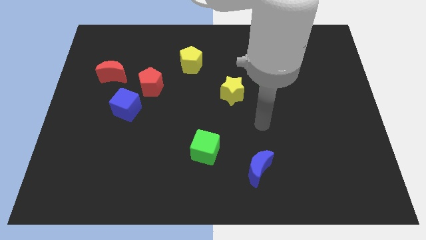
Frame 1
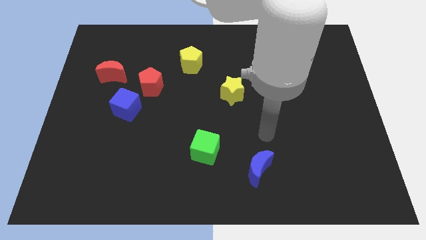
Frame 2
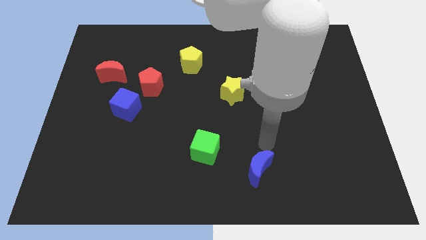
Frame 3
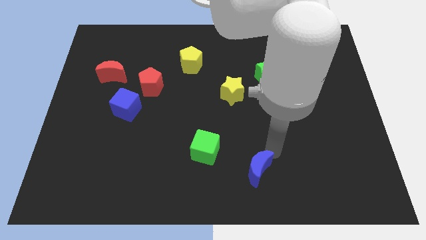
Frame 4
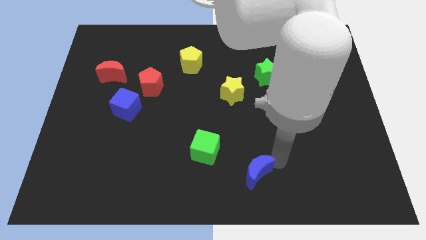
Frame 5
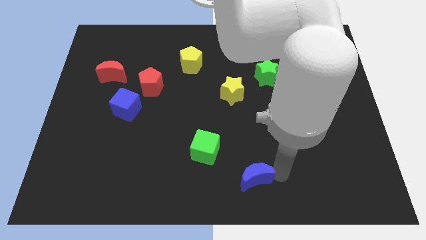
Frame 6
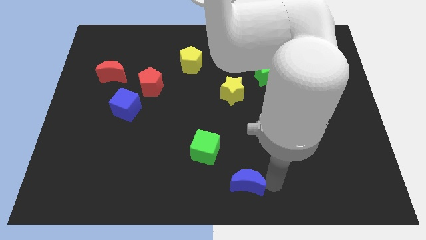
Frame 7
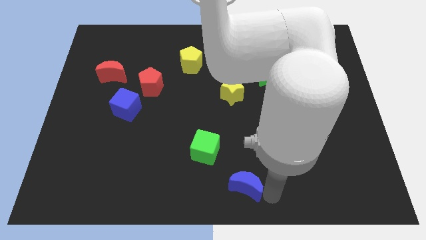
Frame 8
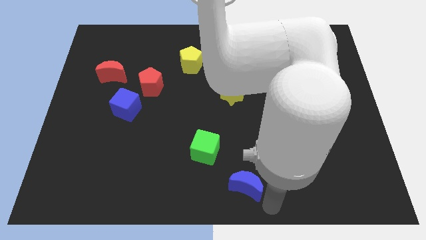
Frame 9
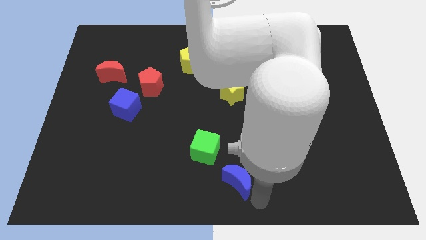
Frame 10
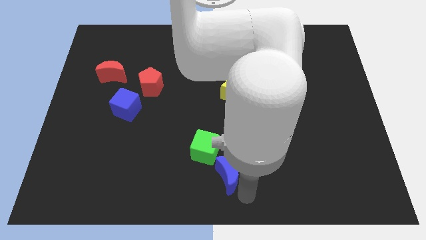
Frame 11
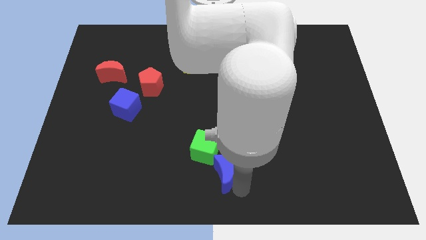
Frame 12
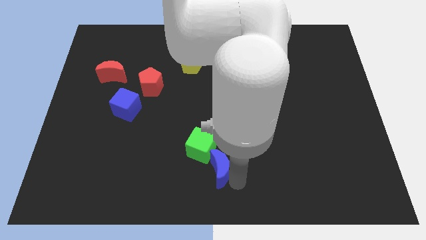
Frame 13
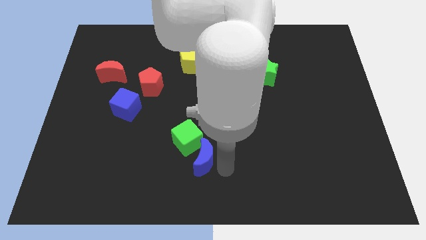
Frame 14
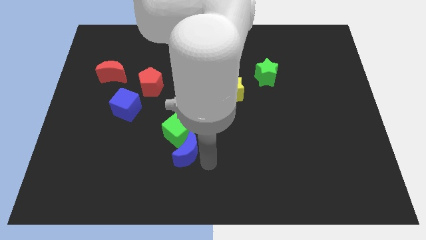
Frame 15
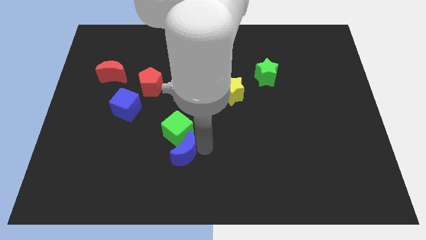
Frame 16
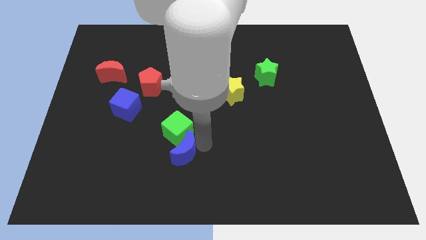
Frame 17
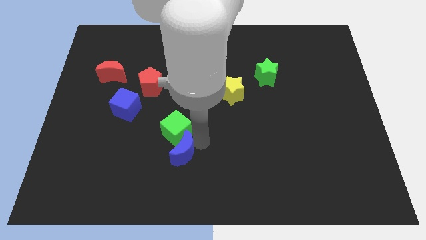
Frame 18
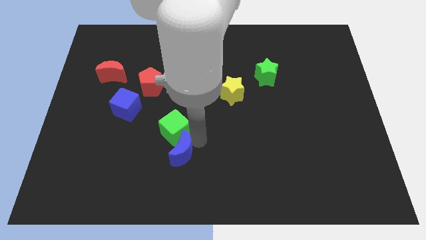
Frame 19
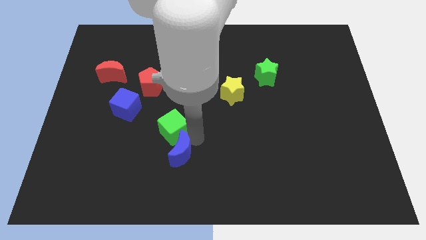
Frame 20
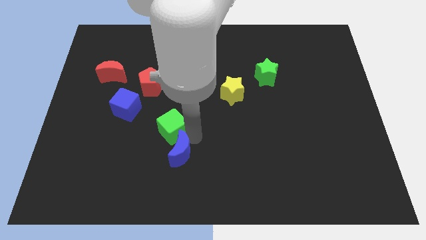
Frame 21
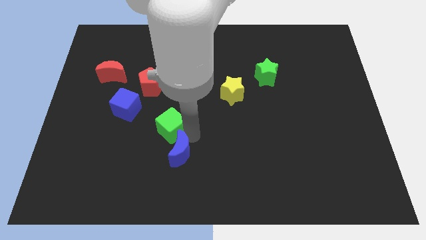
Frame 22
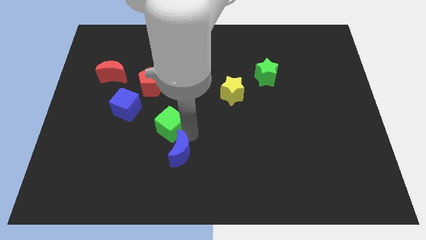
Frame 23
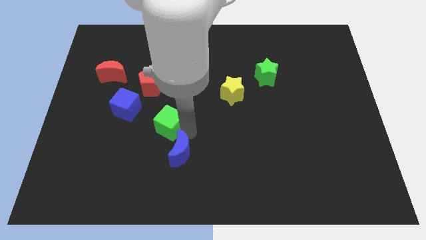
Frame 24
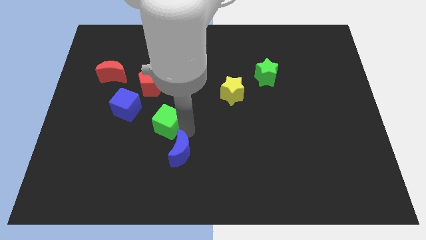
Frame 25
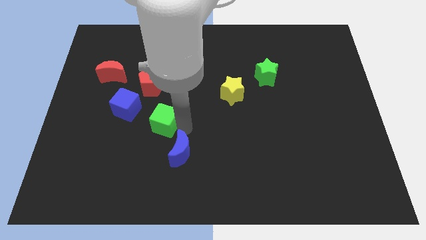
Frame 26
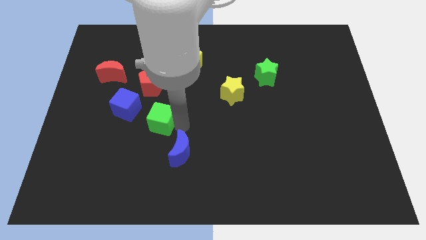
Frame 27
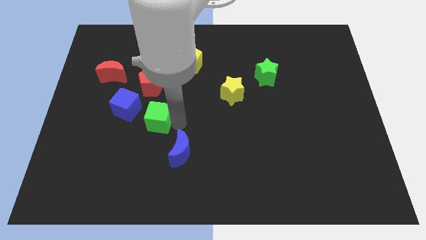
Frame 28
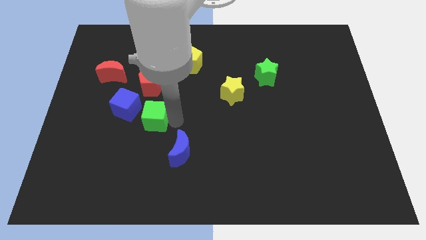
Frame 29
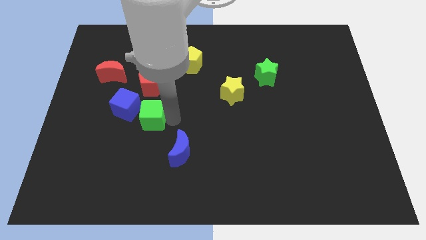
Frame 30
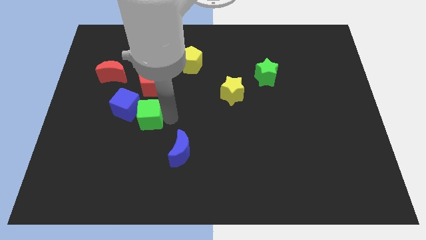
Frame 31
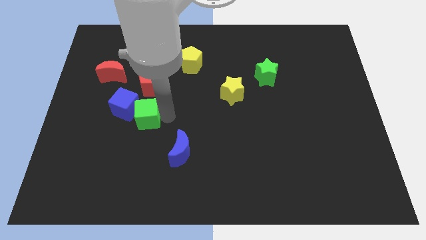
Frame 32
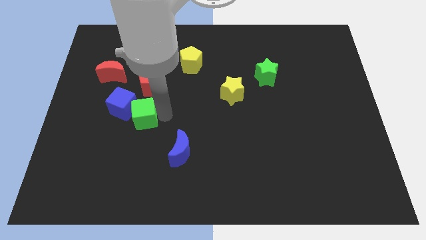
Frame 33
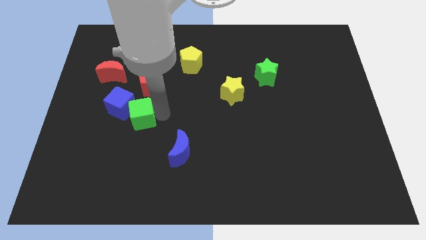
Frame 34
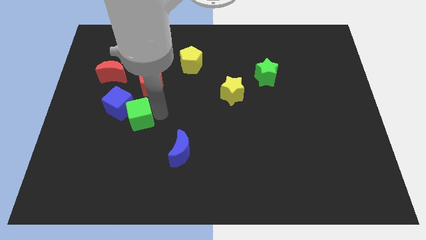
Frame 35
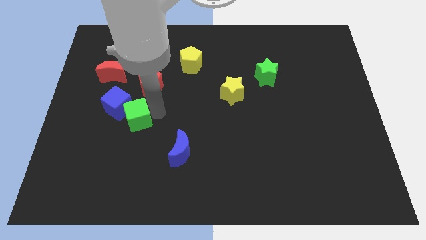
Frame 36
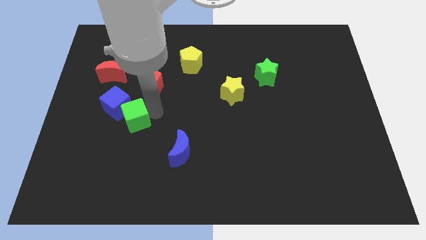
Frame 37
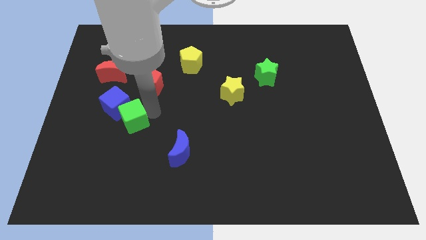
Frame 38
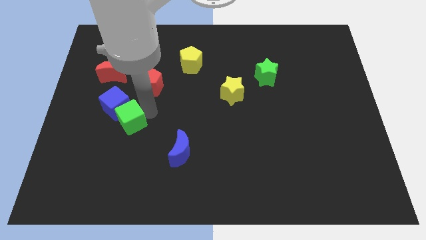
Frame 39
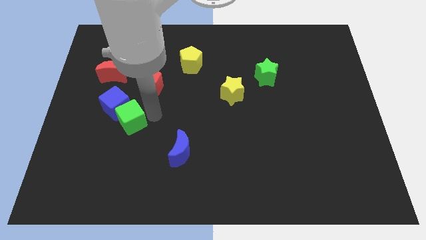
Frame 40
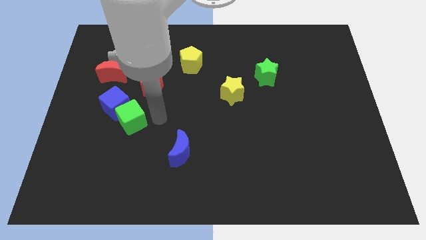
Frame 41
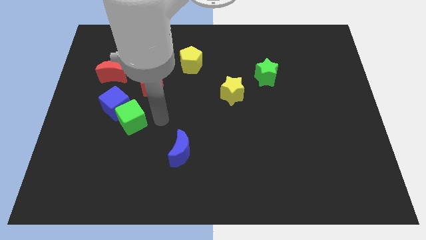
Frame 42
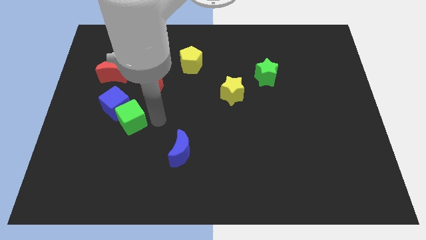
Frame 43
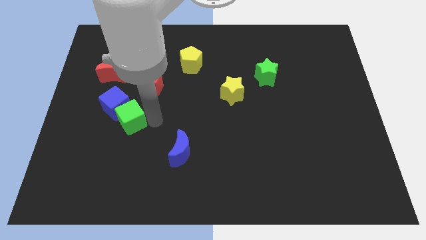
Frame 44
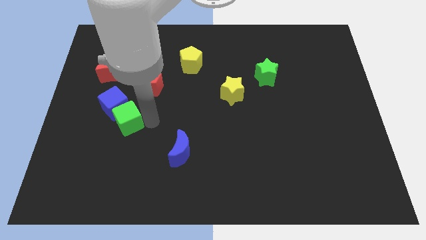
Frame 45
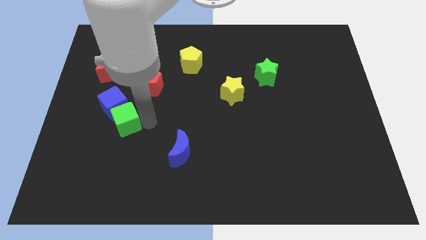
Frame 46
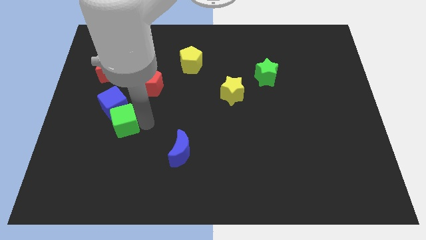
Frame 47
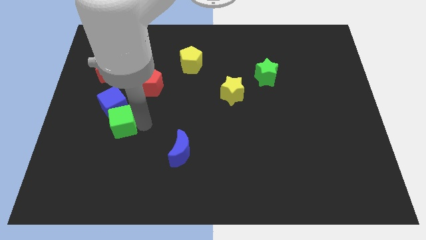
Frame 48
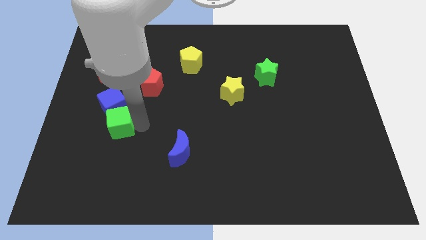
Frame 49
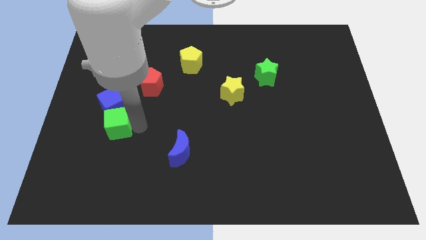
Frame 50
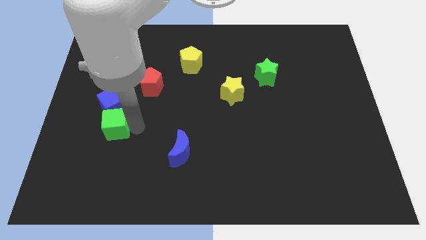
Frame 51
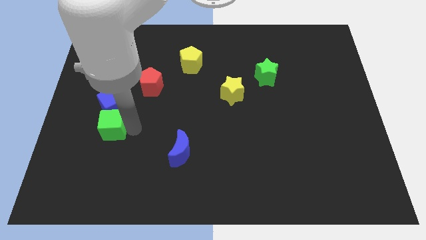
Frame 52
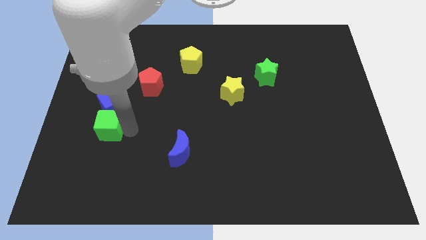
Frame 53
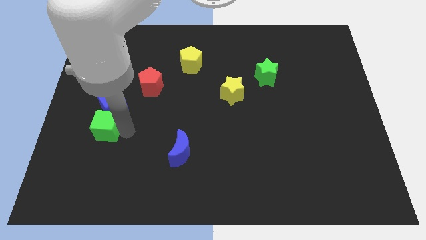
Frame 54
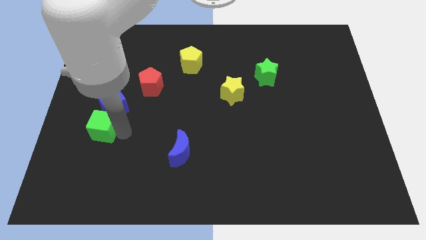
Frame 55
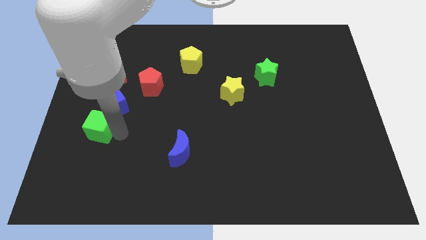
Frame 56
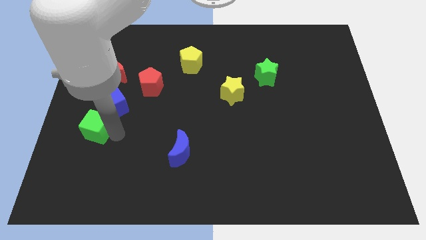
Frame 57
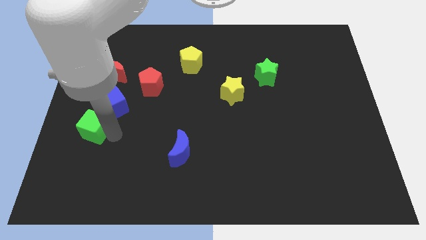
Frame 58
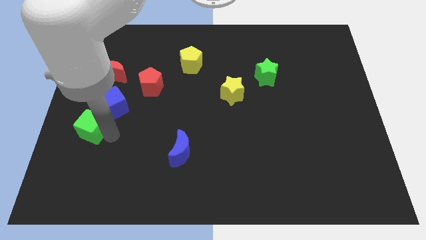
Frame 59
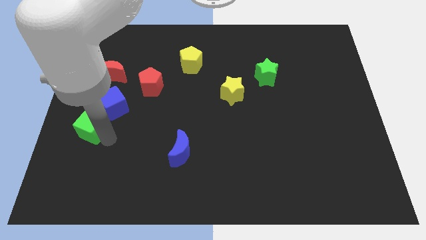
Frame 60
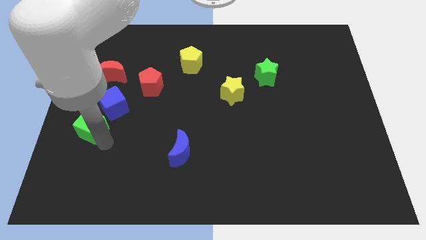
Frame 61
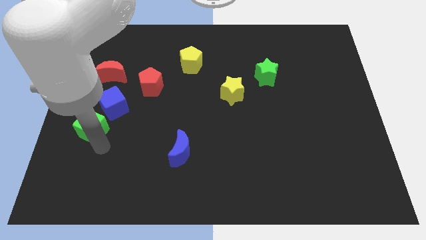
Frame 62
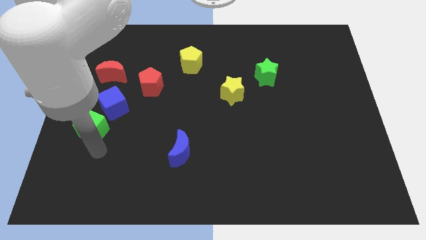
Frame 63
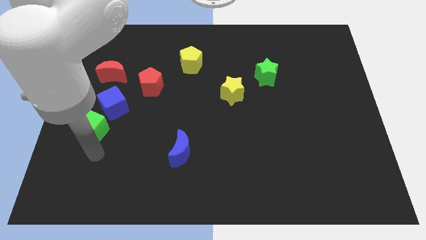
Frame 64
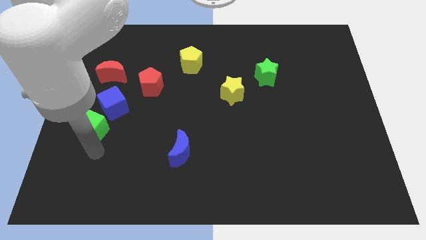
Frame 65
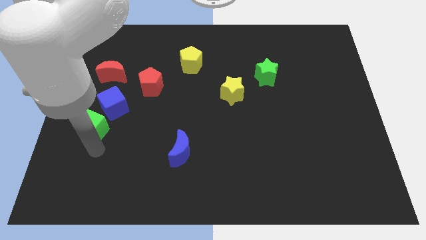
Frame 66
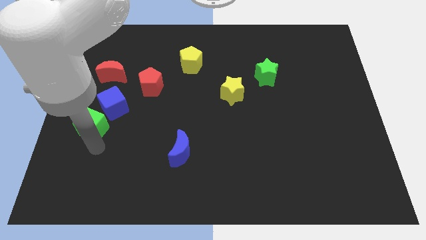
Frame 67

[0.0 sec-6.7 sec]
slide the green cube to the left side
